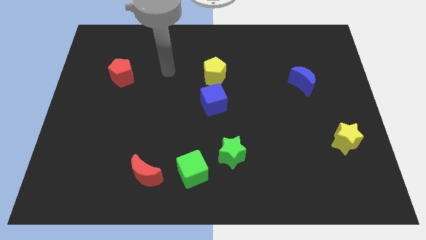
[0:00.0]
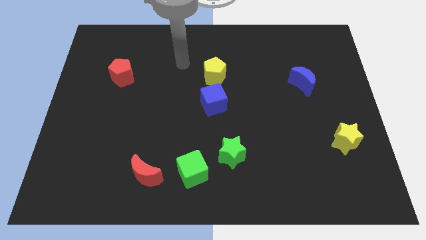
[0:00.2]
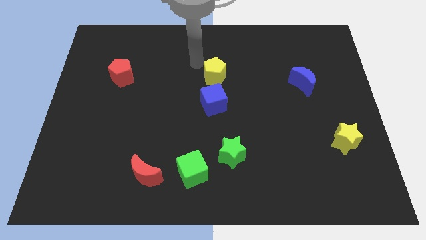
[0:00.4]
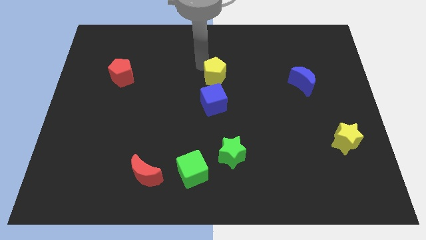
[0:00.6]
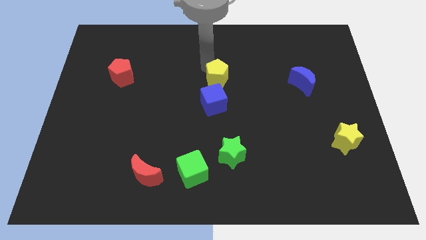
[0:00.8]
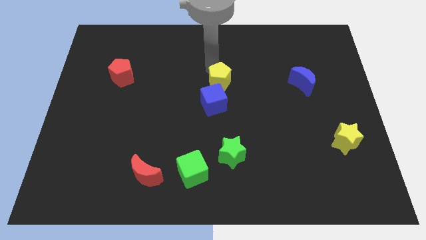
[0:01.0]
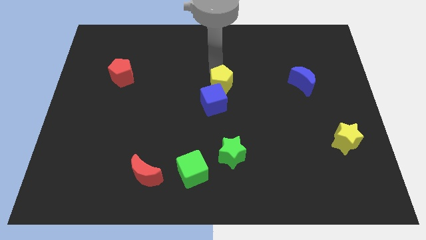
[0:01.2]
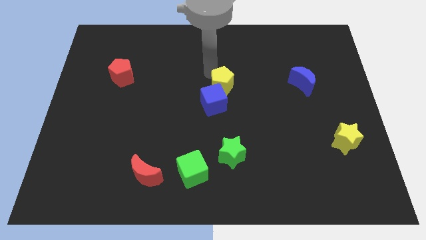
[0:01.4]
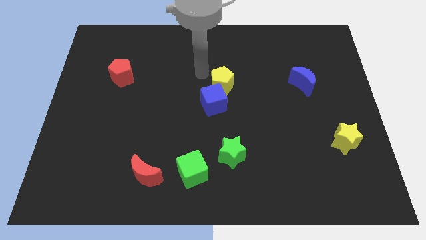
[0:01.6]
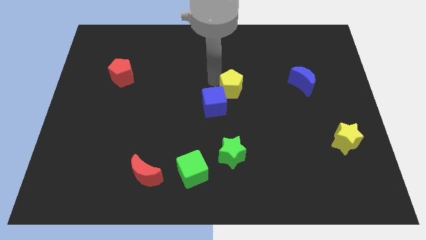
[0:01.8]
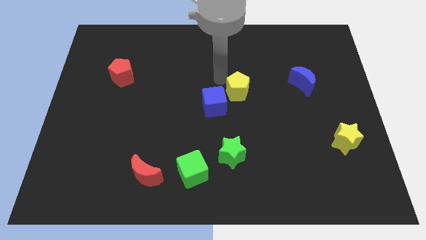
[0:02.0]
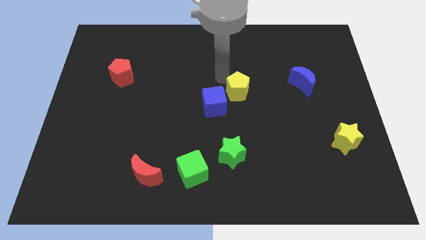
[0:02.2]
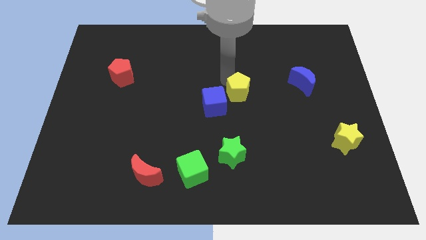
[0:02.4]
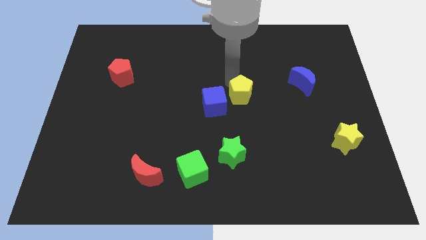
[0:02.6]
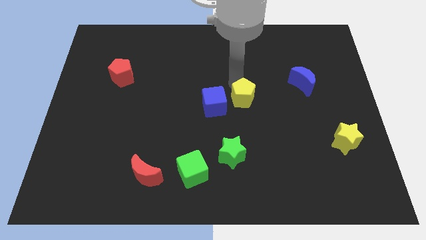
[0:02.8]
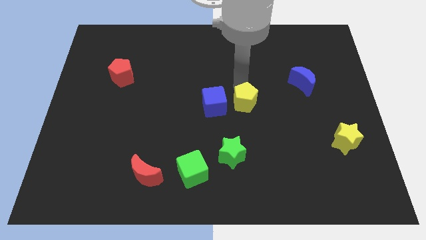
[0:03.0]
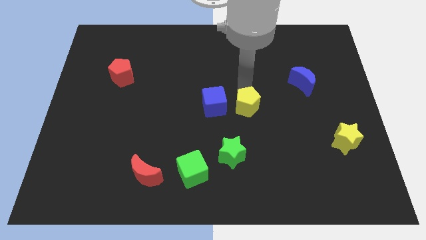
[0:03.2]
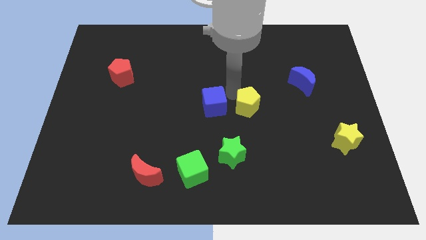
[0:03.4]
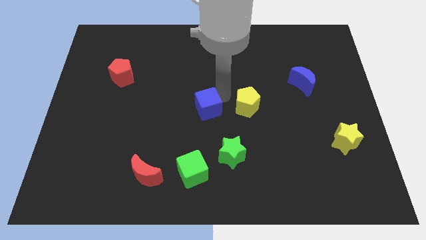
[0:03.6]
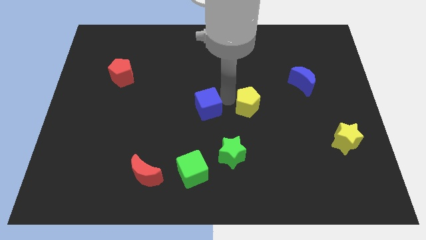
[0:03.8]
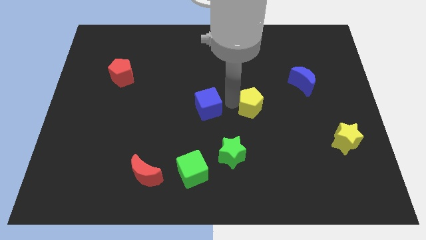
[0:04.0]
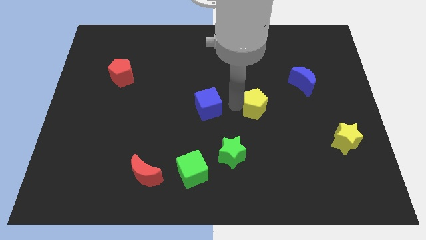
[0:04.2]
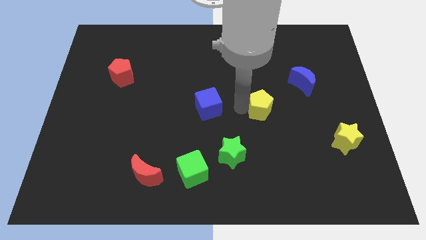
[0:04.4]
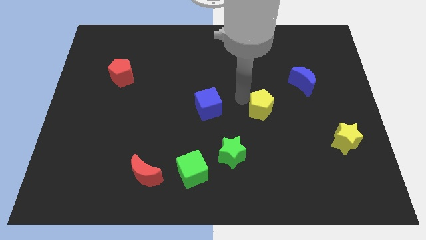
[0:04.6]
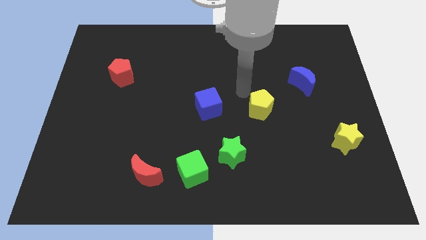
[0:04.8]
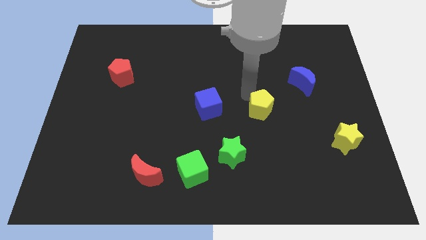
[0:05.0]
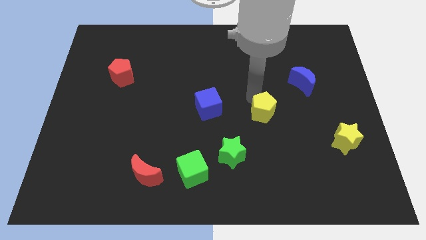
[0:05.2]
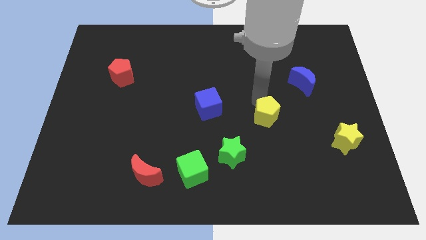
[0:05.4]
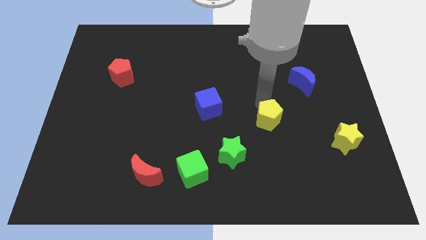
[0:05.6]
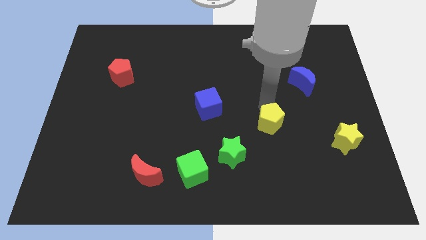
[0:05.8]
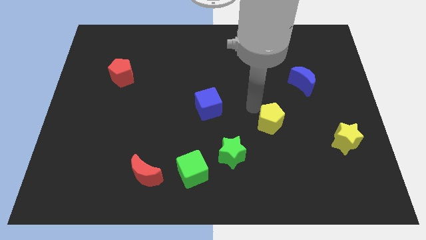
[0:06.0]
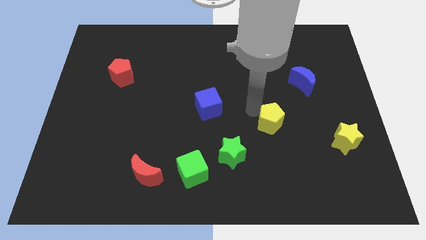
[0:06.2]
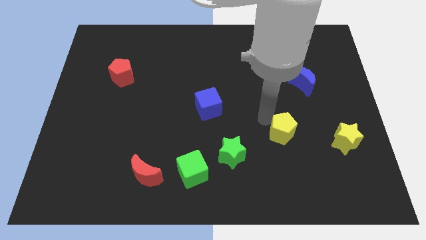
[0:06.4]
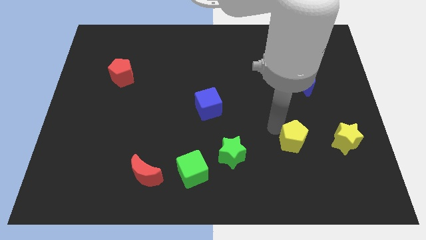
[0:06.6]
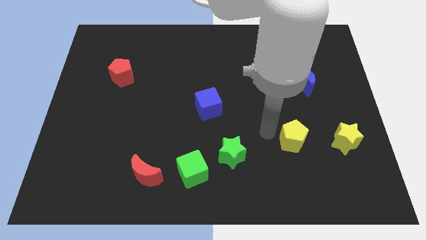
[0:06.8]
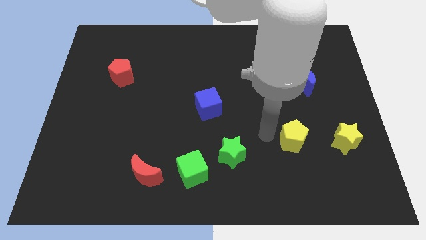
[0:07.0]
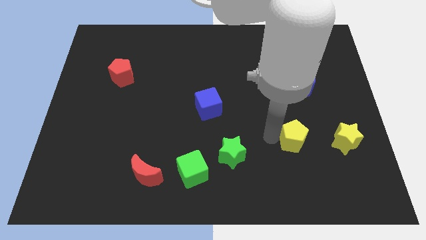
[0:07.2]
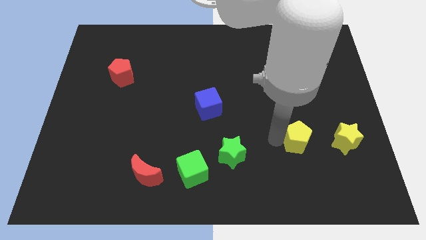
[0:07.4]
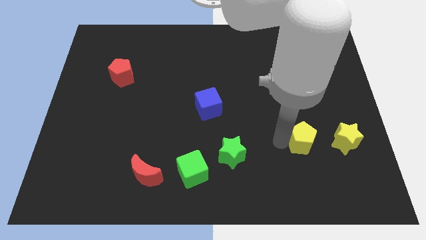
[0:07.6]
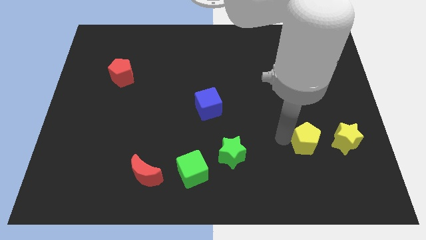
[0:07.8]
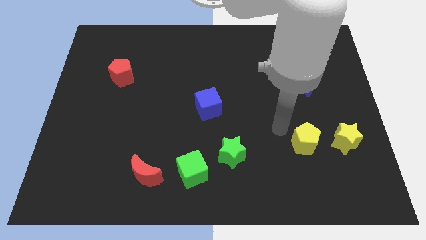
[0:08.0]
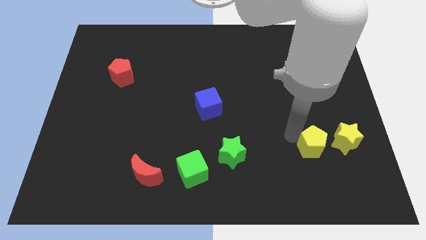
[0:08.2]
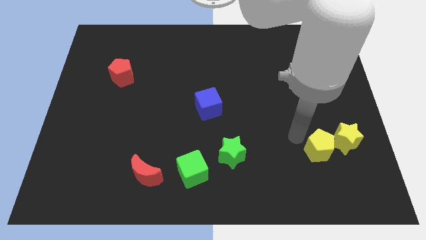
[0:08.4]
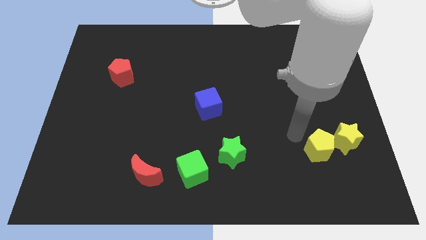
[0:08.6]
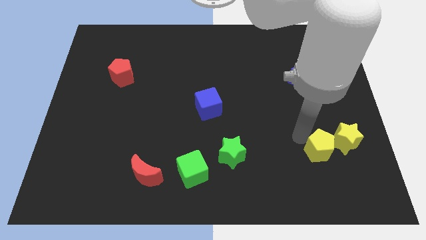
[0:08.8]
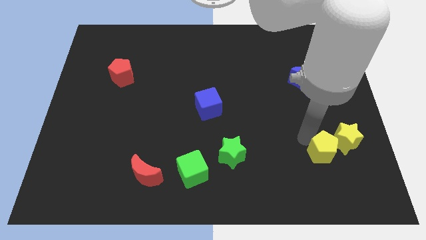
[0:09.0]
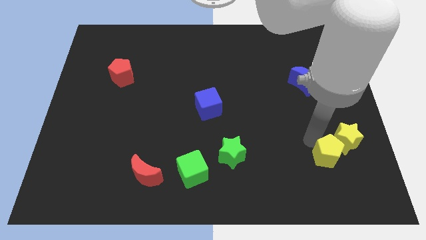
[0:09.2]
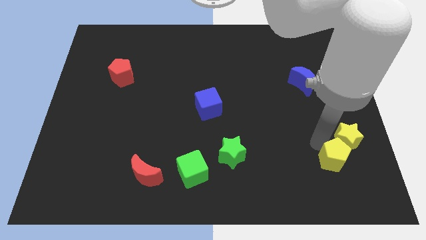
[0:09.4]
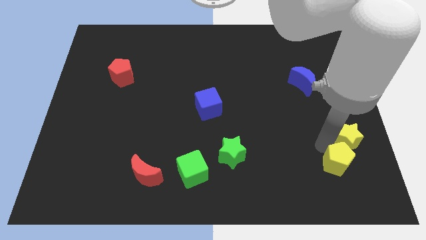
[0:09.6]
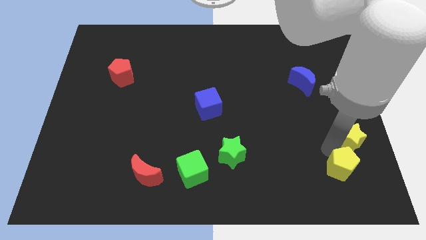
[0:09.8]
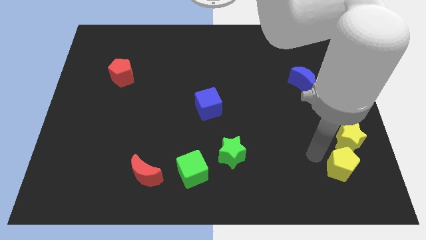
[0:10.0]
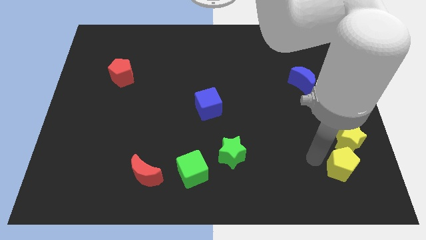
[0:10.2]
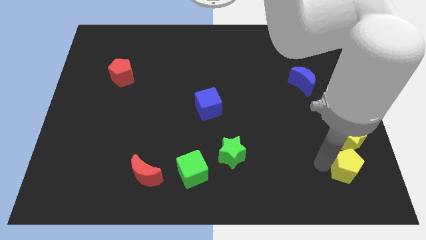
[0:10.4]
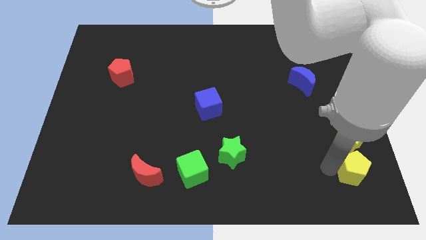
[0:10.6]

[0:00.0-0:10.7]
move the yellow pentagon to the bottom right corner
